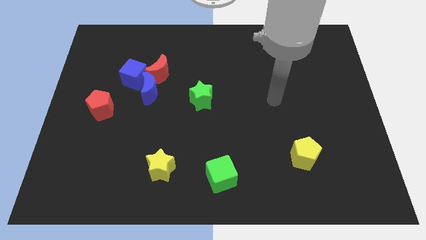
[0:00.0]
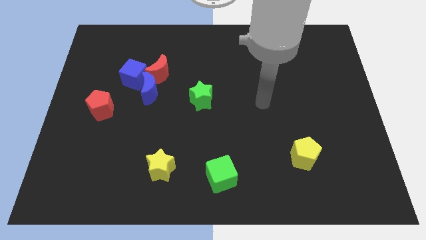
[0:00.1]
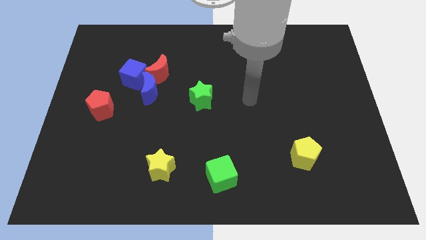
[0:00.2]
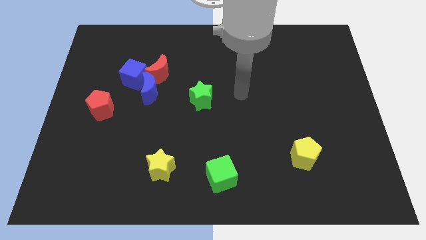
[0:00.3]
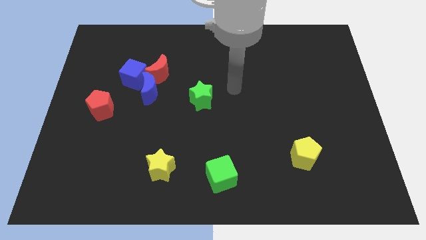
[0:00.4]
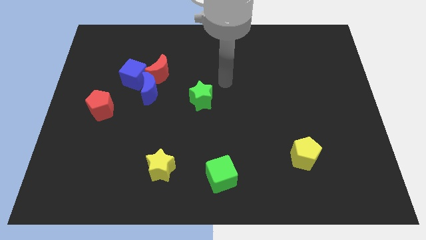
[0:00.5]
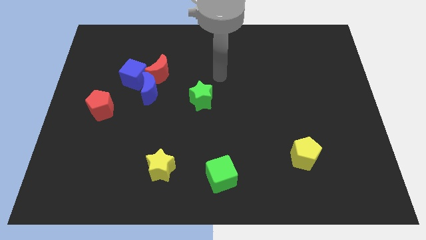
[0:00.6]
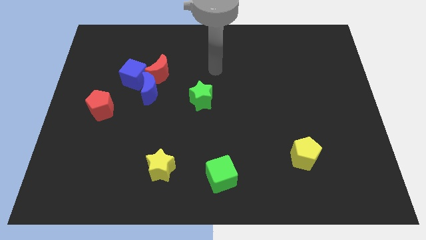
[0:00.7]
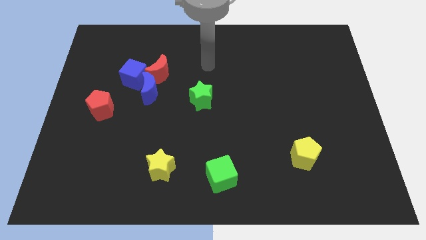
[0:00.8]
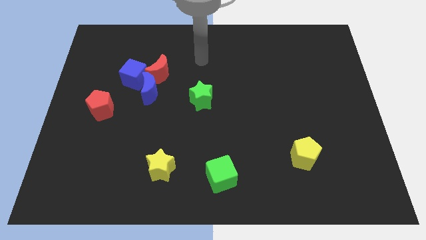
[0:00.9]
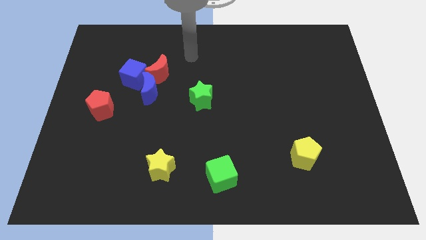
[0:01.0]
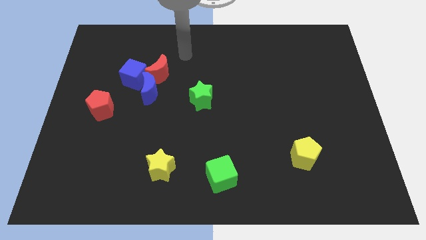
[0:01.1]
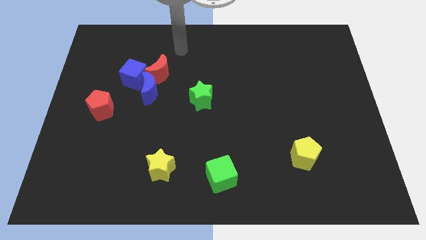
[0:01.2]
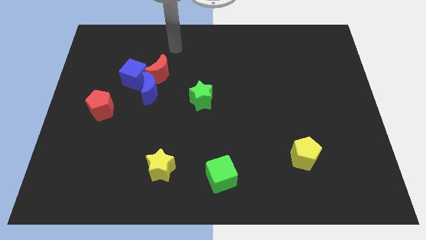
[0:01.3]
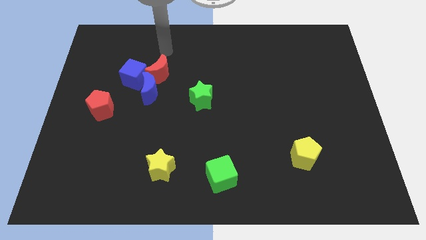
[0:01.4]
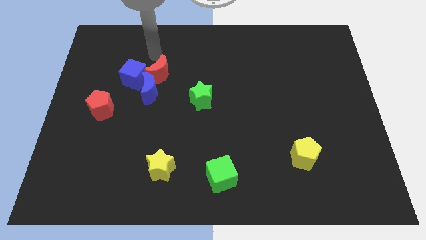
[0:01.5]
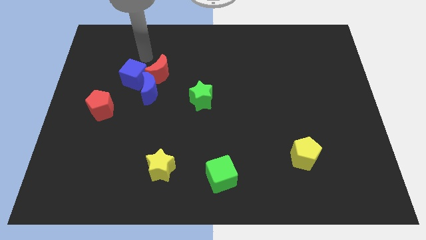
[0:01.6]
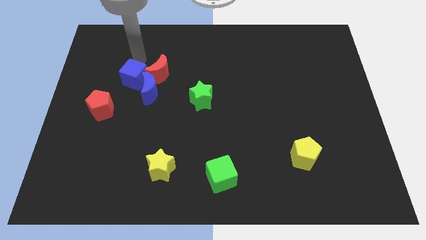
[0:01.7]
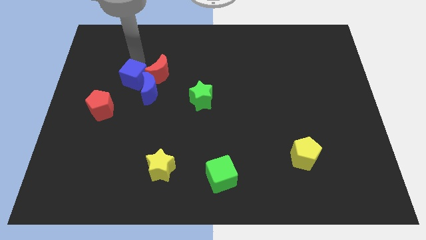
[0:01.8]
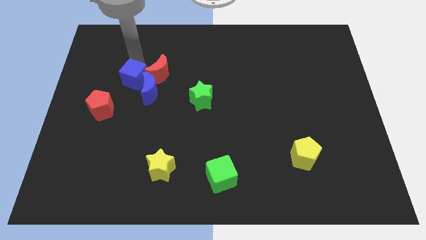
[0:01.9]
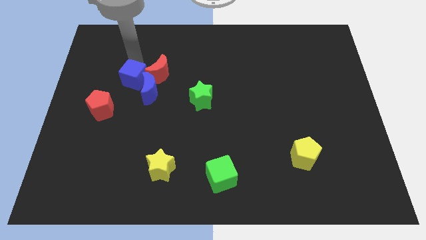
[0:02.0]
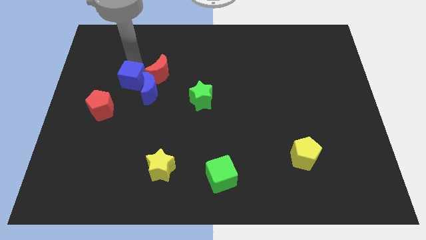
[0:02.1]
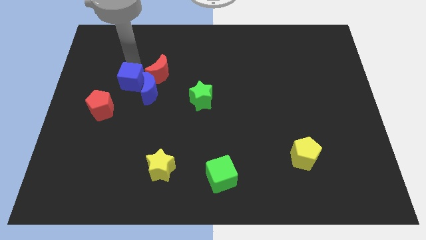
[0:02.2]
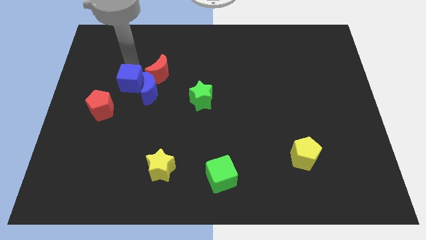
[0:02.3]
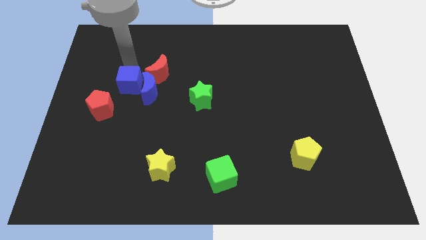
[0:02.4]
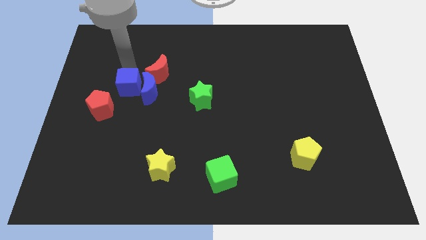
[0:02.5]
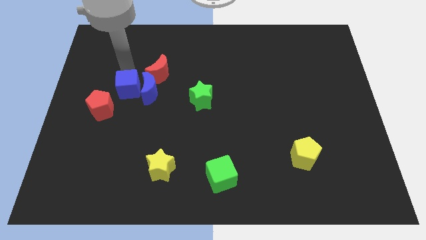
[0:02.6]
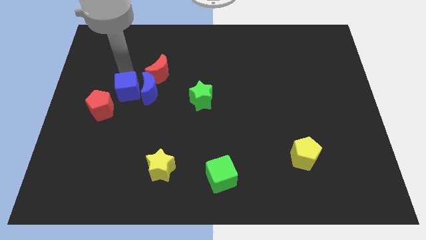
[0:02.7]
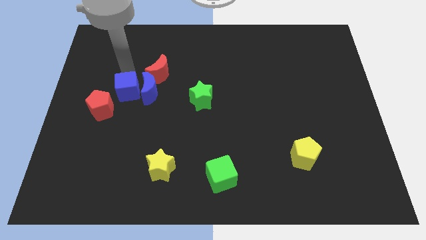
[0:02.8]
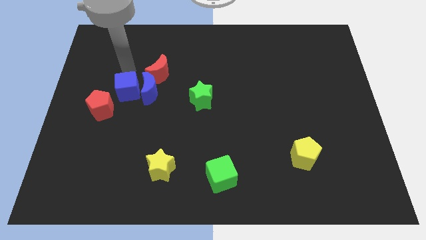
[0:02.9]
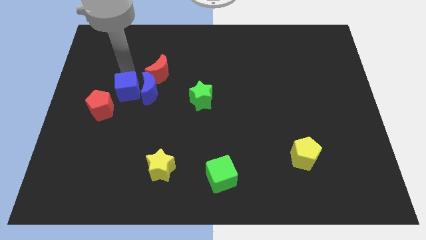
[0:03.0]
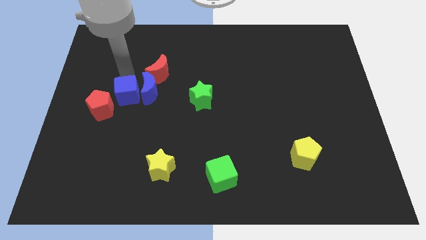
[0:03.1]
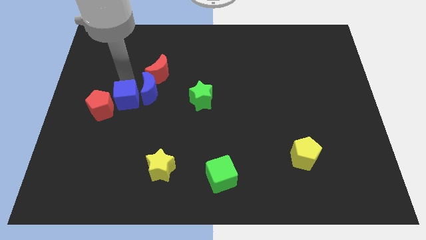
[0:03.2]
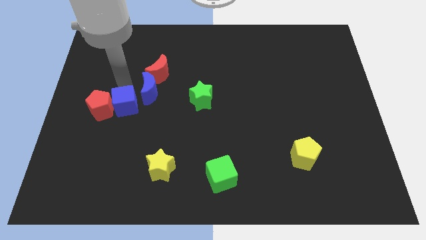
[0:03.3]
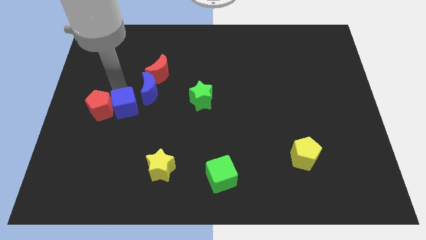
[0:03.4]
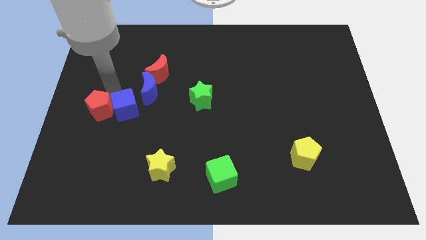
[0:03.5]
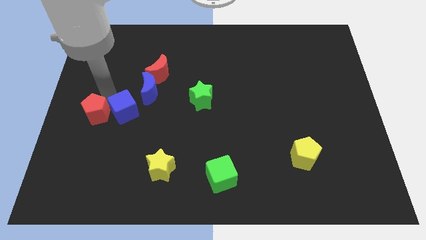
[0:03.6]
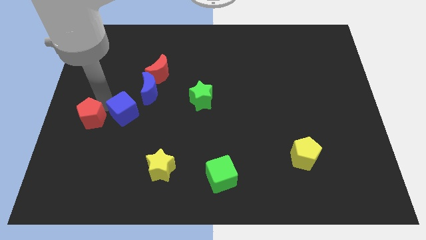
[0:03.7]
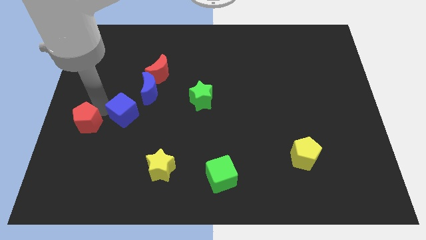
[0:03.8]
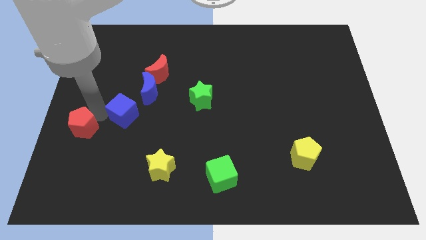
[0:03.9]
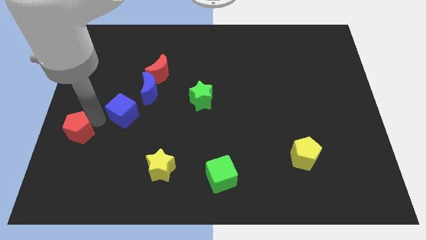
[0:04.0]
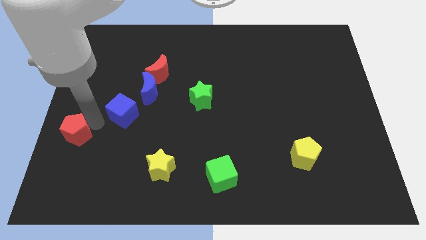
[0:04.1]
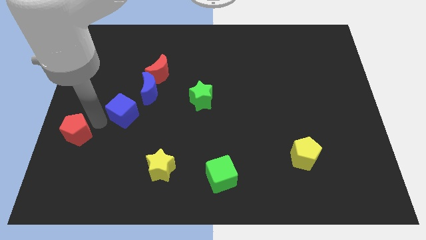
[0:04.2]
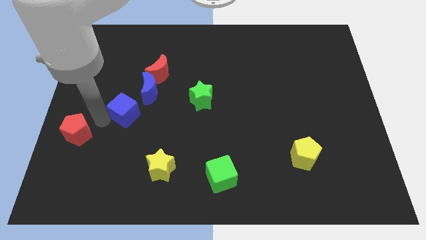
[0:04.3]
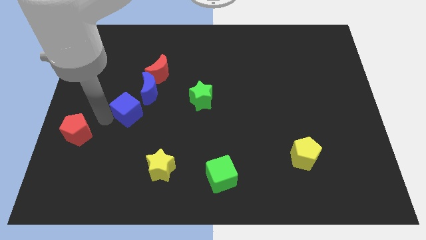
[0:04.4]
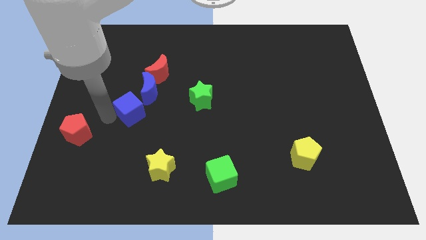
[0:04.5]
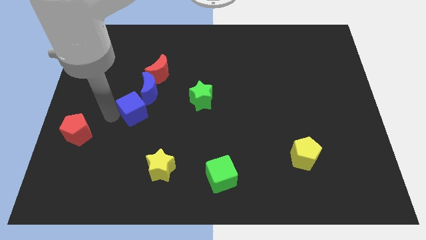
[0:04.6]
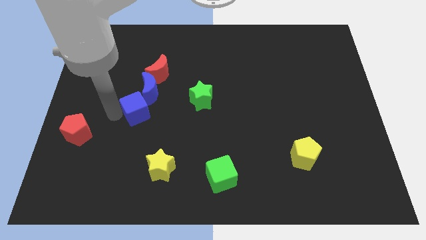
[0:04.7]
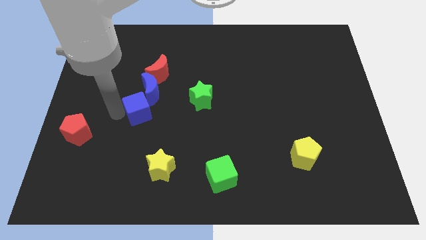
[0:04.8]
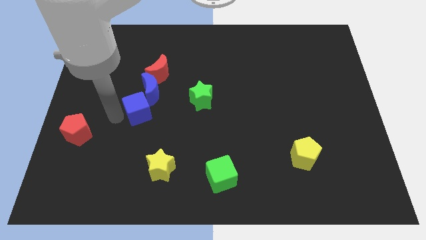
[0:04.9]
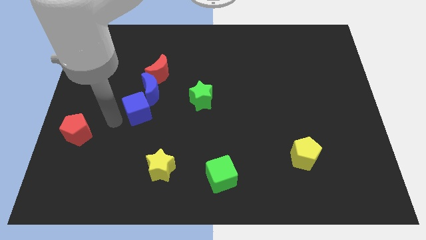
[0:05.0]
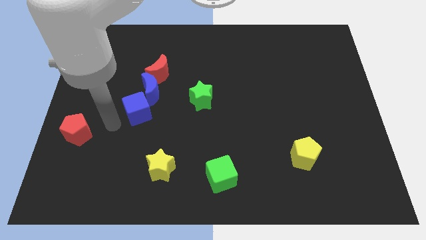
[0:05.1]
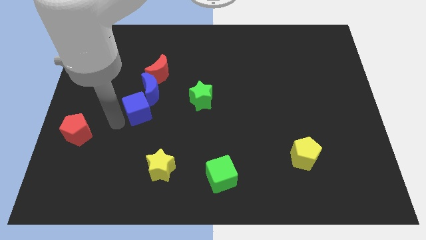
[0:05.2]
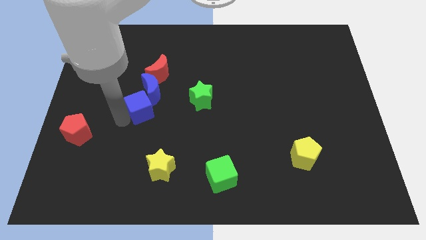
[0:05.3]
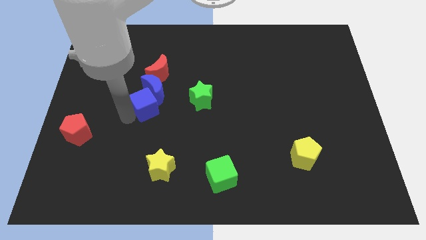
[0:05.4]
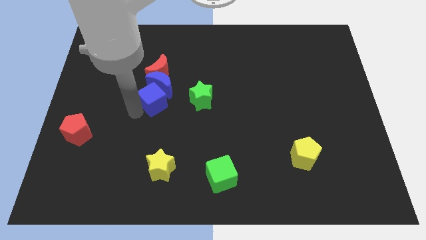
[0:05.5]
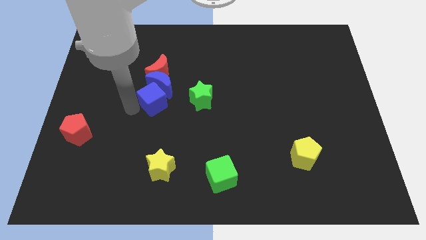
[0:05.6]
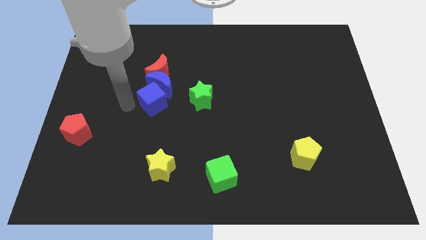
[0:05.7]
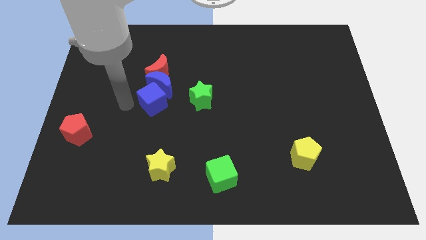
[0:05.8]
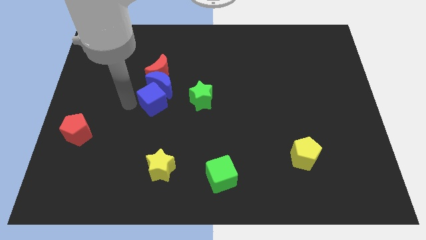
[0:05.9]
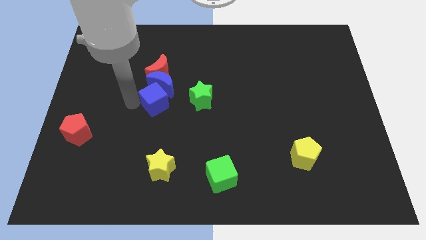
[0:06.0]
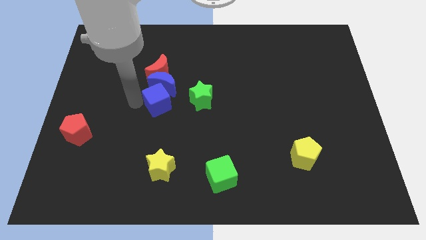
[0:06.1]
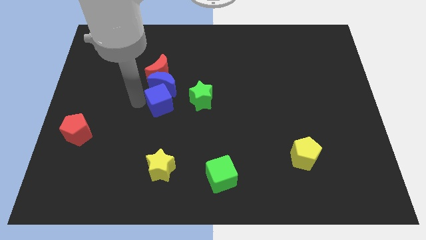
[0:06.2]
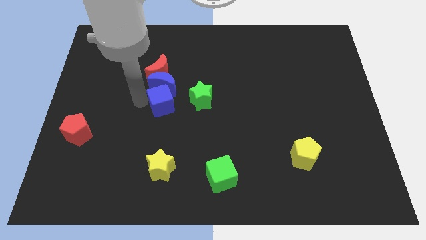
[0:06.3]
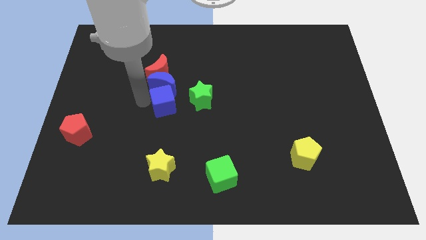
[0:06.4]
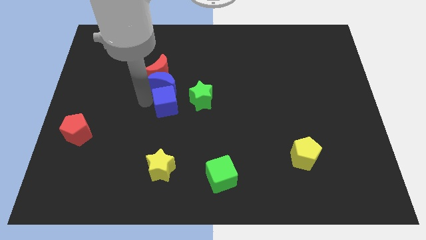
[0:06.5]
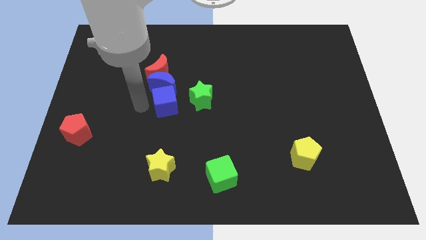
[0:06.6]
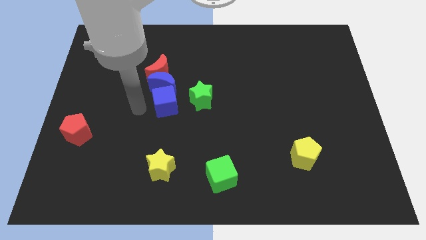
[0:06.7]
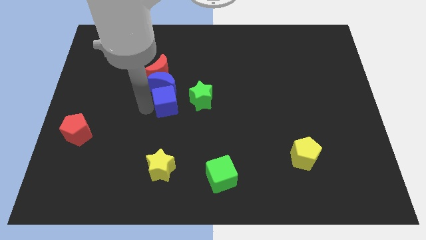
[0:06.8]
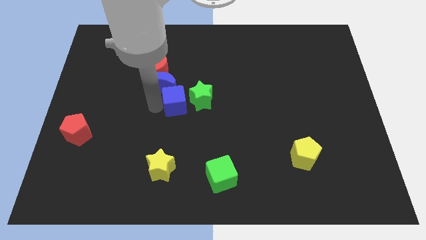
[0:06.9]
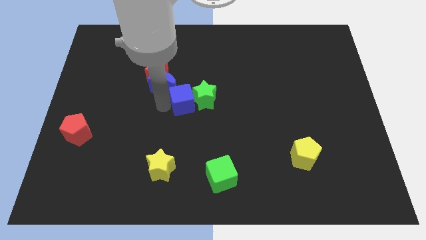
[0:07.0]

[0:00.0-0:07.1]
move the blue cube towards the green star
